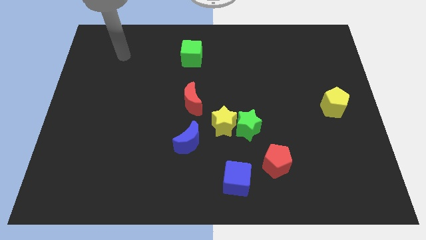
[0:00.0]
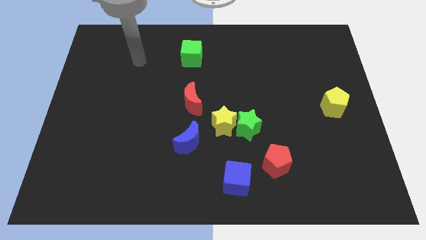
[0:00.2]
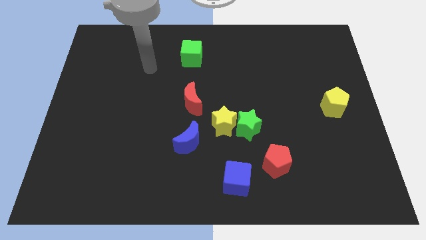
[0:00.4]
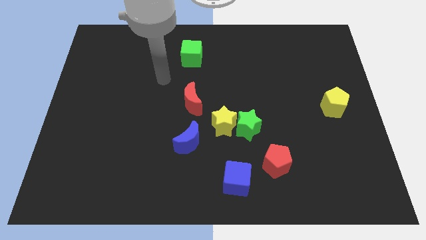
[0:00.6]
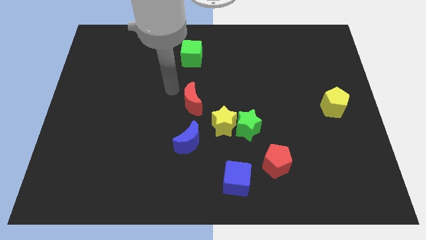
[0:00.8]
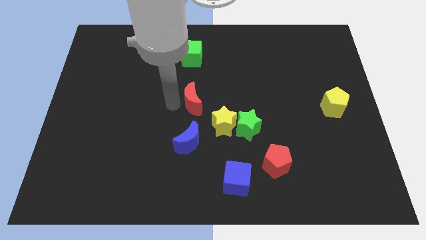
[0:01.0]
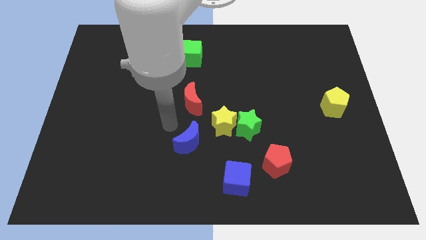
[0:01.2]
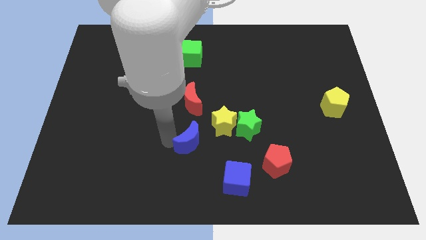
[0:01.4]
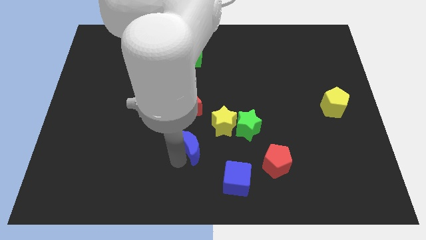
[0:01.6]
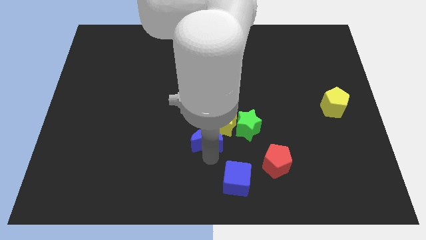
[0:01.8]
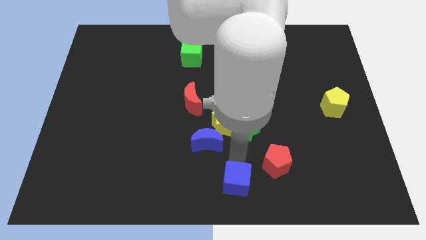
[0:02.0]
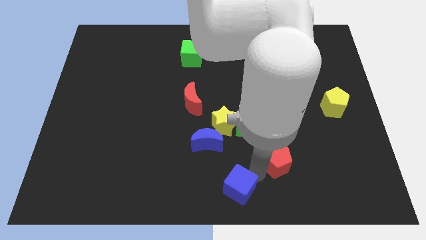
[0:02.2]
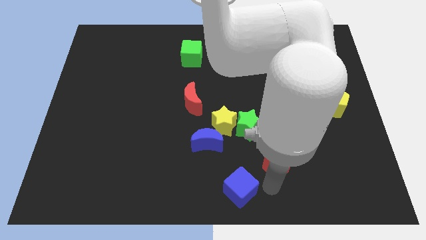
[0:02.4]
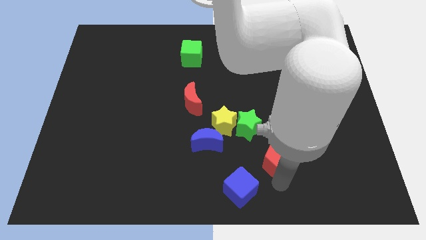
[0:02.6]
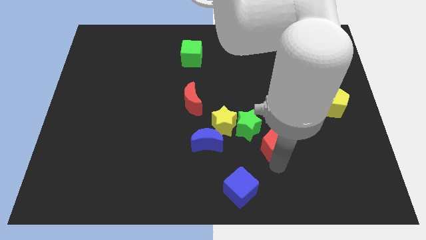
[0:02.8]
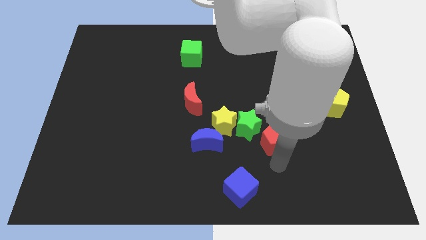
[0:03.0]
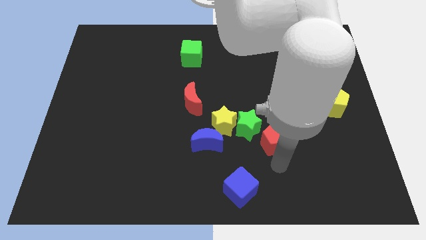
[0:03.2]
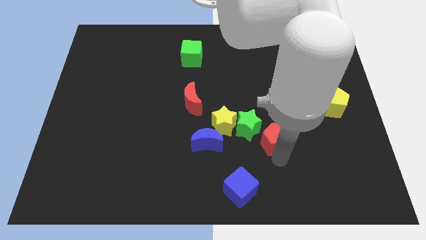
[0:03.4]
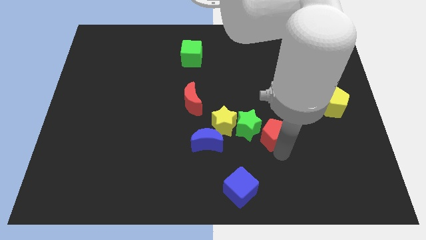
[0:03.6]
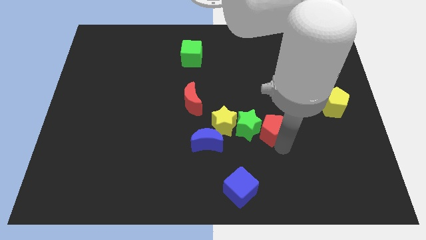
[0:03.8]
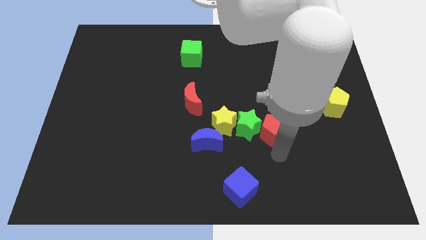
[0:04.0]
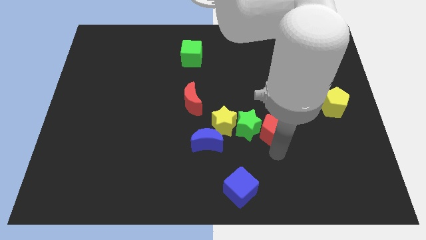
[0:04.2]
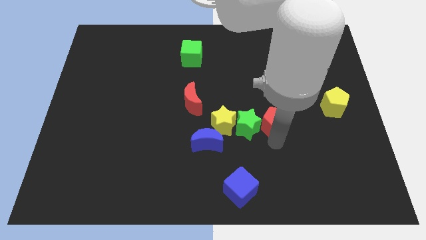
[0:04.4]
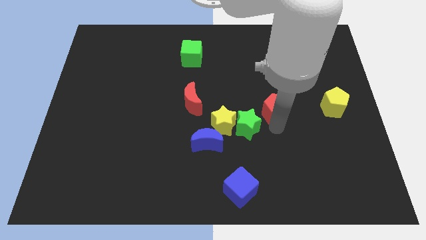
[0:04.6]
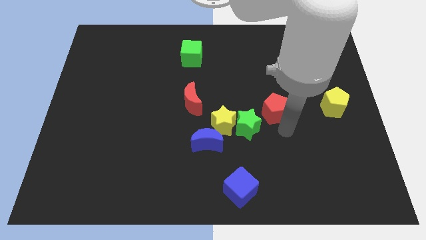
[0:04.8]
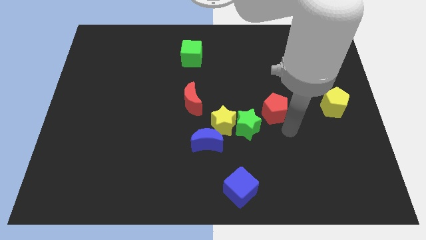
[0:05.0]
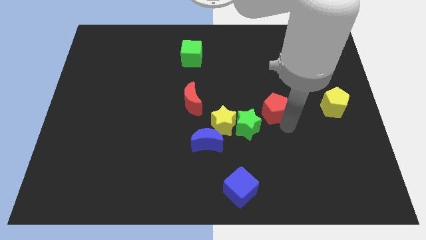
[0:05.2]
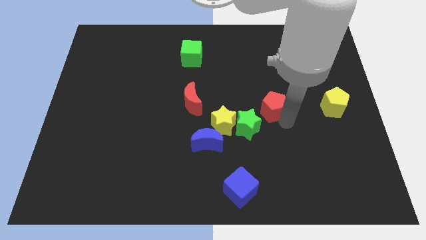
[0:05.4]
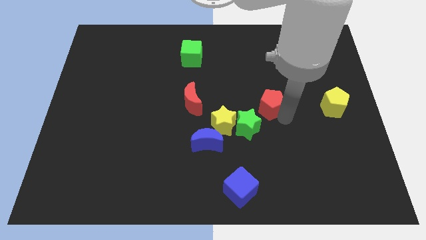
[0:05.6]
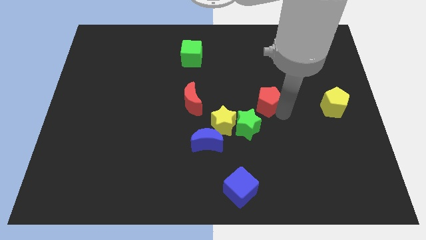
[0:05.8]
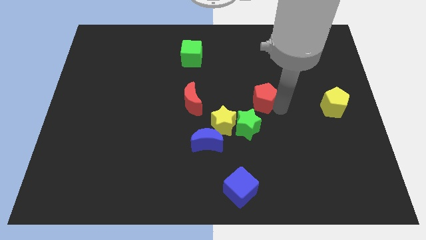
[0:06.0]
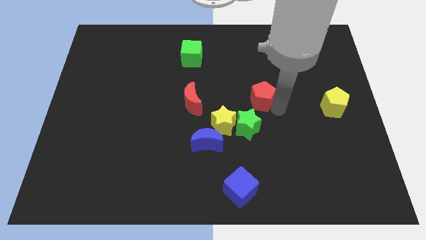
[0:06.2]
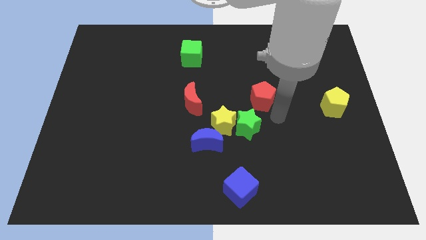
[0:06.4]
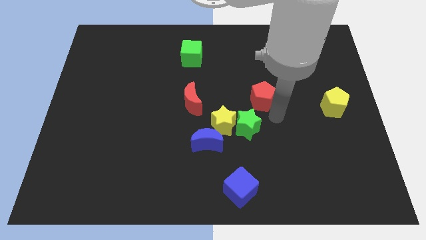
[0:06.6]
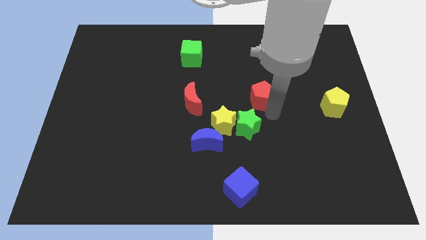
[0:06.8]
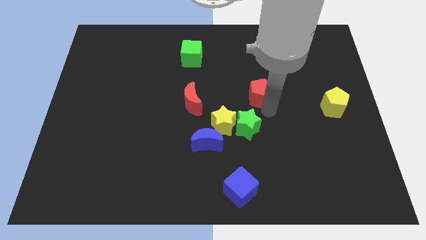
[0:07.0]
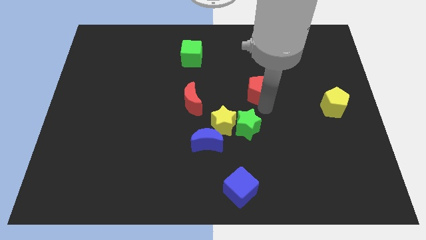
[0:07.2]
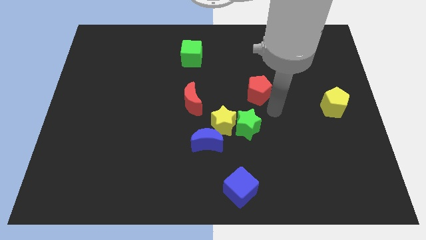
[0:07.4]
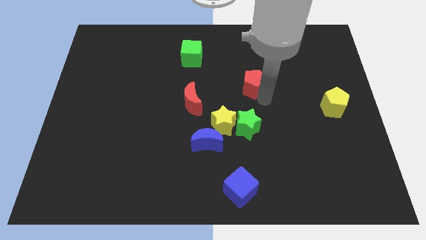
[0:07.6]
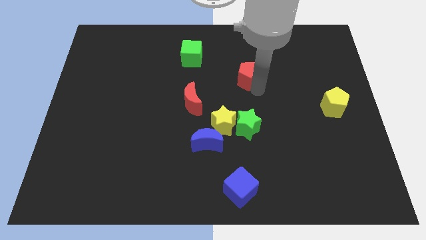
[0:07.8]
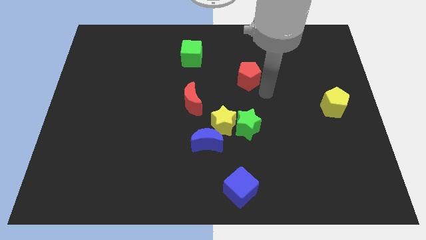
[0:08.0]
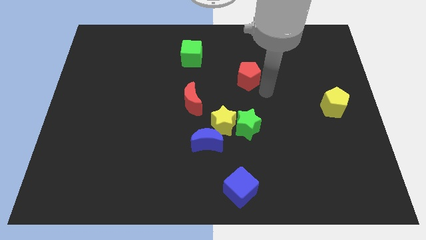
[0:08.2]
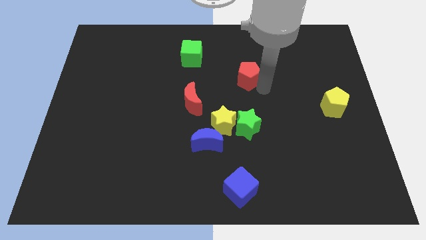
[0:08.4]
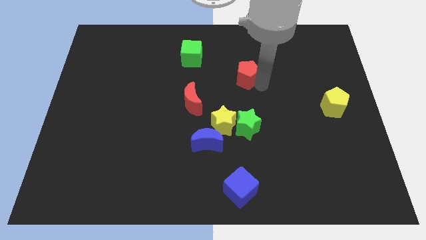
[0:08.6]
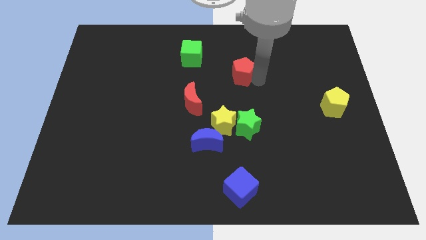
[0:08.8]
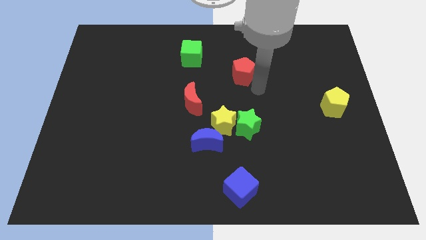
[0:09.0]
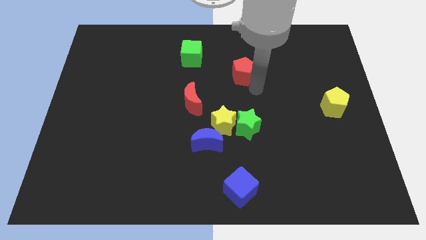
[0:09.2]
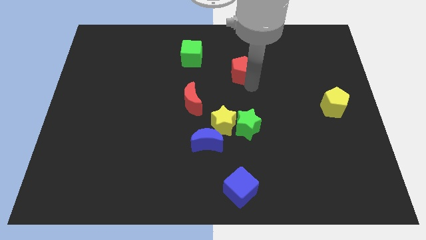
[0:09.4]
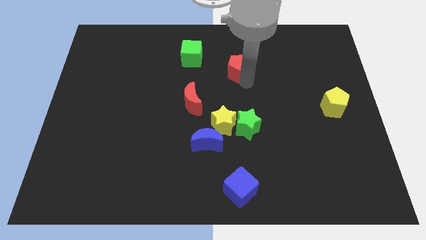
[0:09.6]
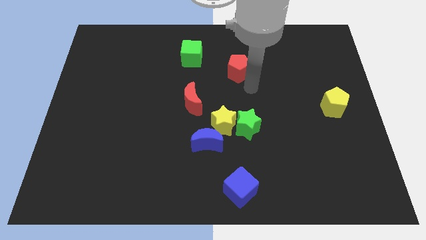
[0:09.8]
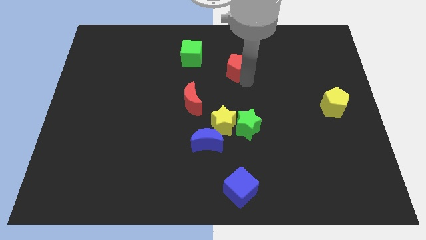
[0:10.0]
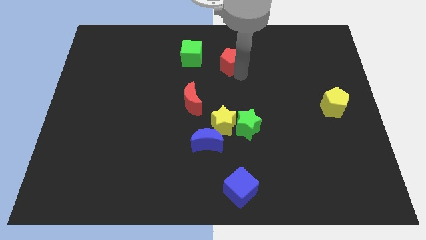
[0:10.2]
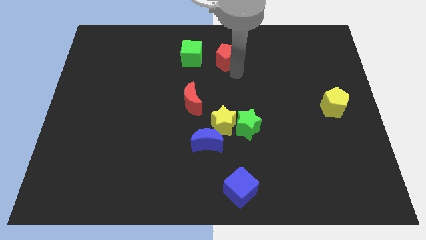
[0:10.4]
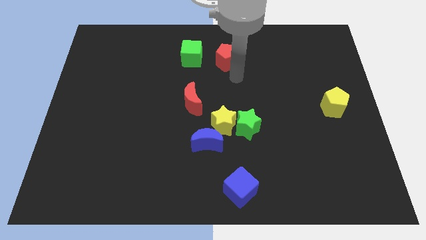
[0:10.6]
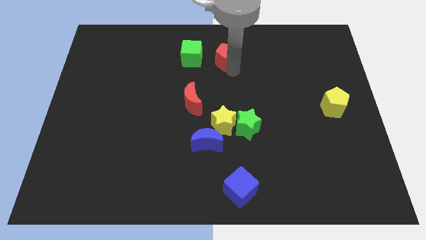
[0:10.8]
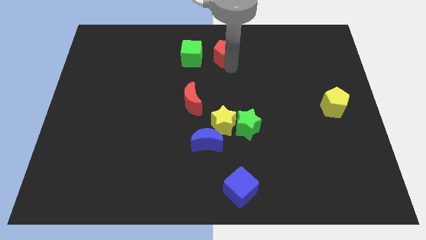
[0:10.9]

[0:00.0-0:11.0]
push the red pentagon to the towards your base

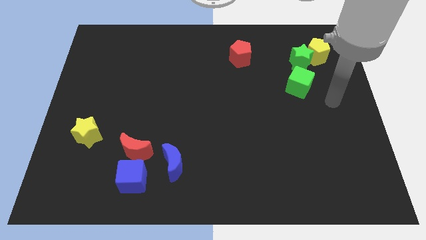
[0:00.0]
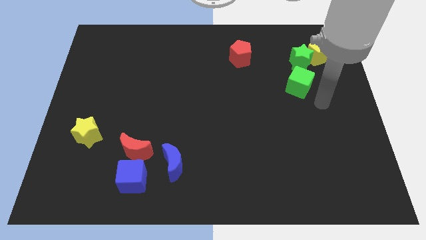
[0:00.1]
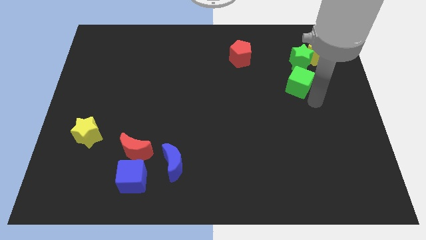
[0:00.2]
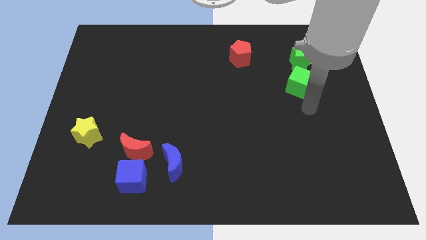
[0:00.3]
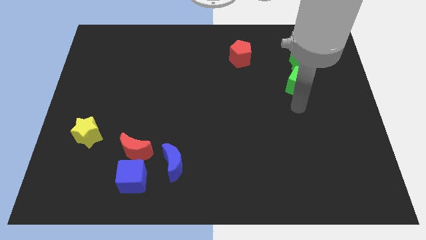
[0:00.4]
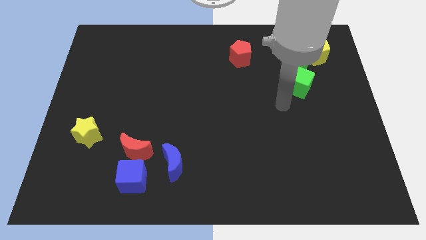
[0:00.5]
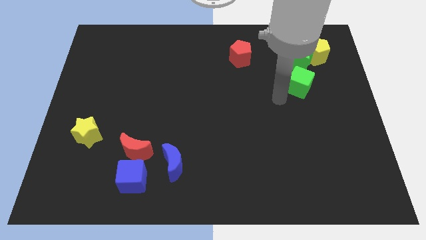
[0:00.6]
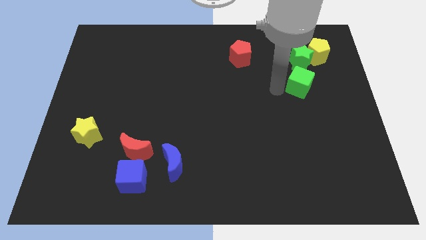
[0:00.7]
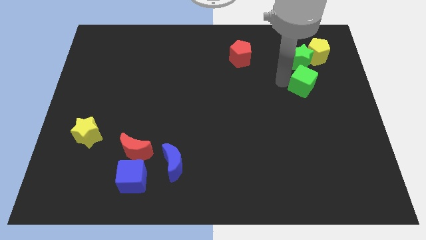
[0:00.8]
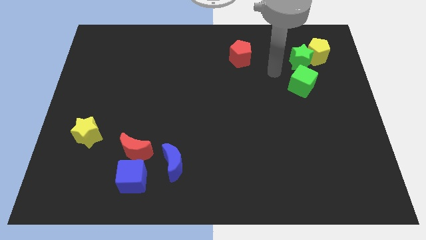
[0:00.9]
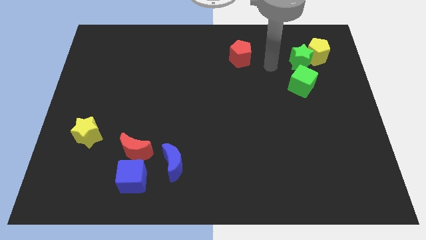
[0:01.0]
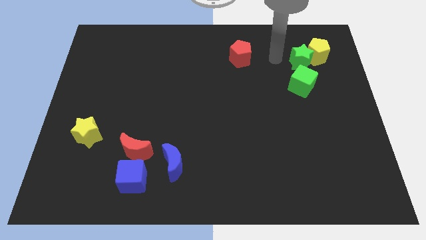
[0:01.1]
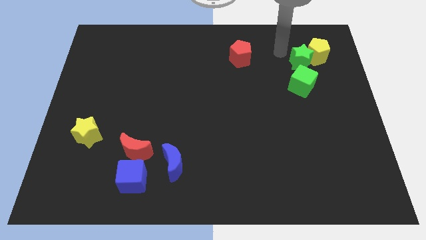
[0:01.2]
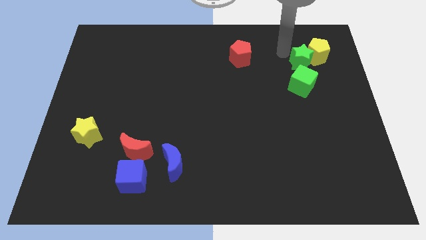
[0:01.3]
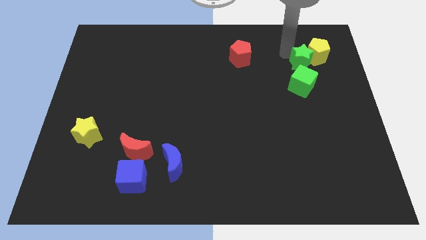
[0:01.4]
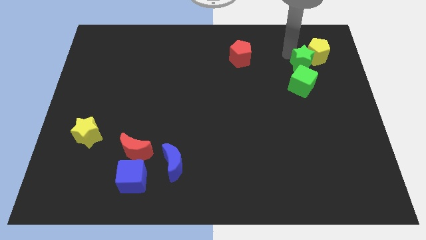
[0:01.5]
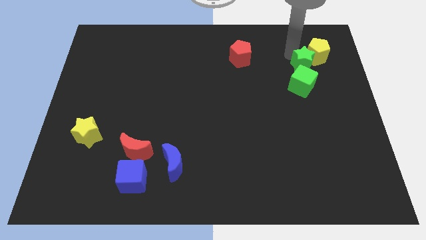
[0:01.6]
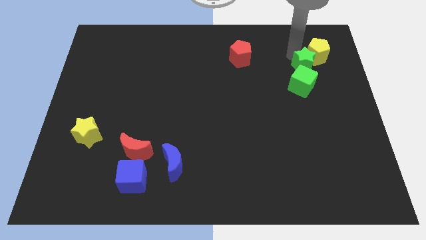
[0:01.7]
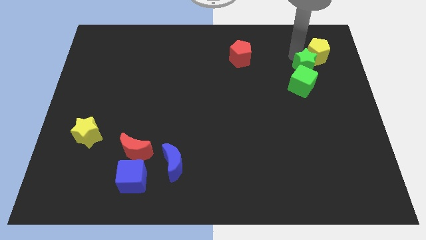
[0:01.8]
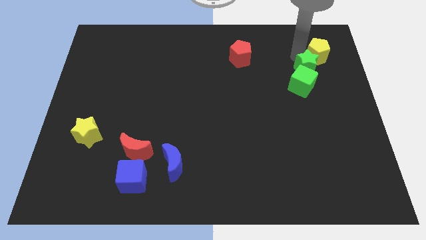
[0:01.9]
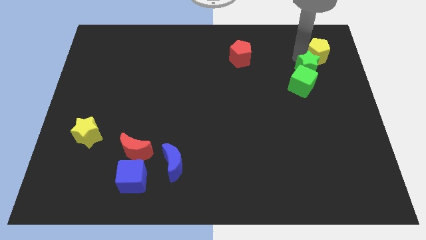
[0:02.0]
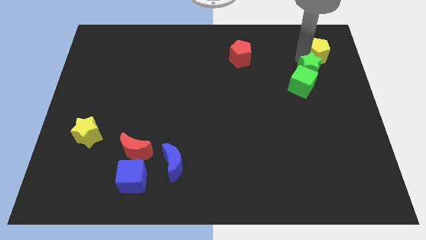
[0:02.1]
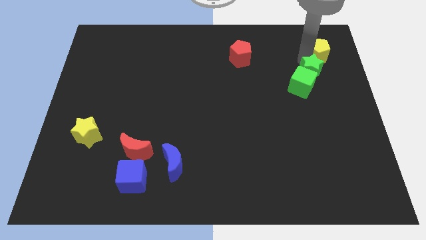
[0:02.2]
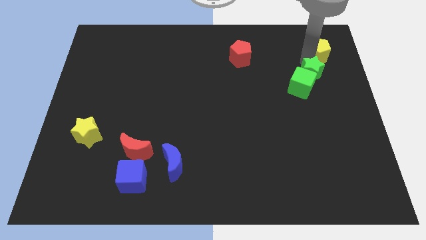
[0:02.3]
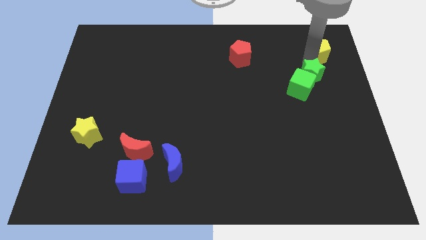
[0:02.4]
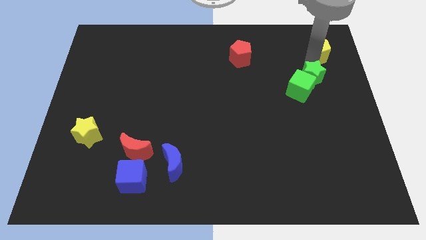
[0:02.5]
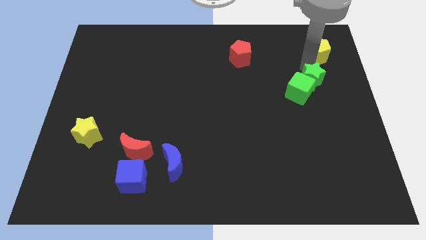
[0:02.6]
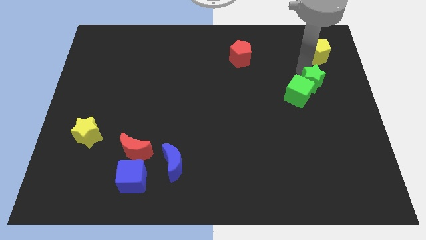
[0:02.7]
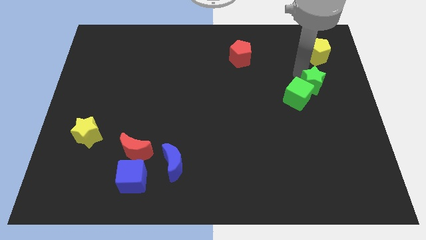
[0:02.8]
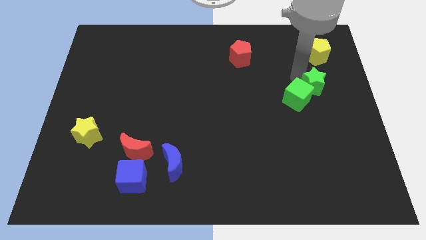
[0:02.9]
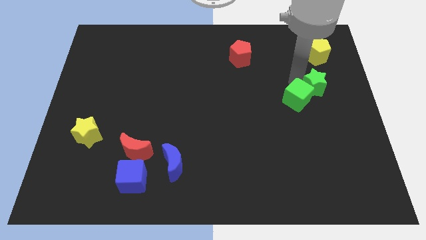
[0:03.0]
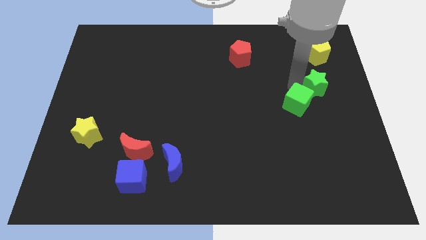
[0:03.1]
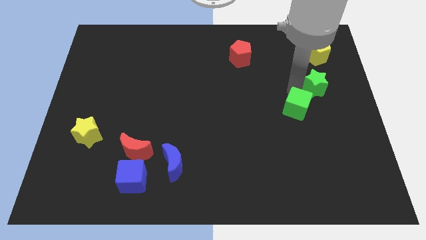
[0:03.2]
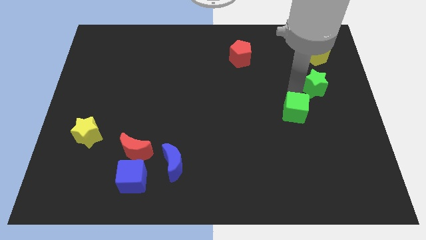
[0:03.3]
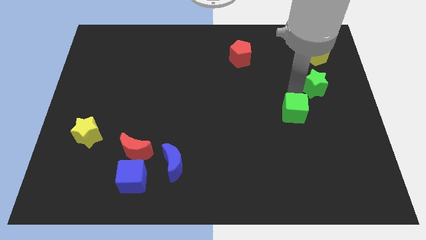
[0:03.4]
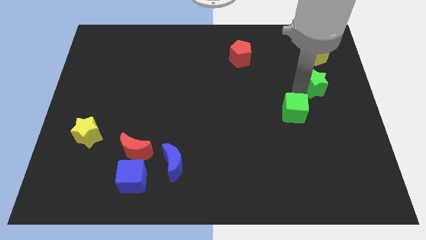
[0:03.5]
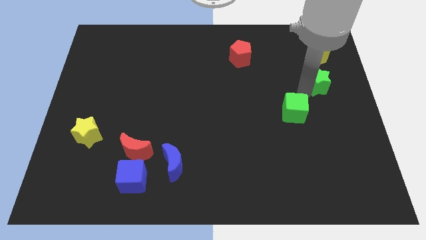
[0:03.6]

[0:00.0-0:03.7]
put the green star to the right side of the board
